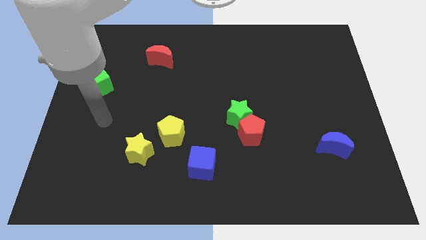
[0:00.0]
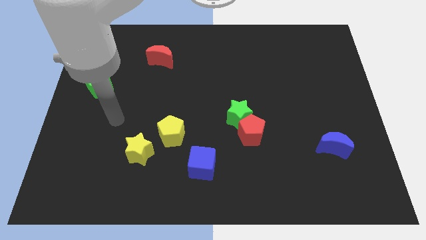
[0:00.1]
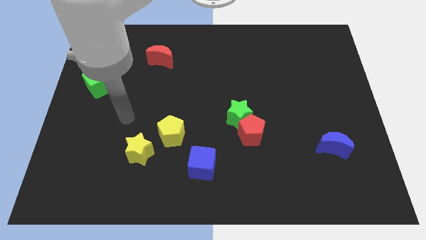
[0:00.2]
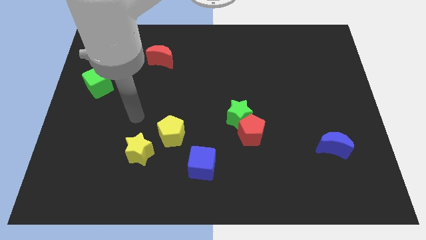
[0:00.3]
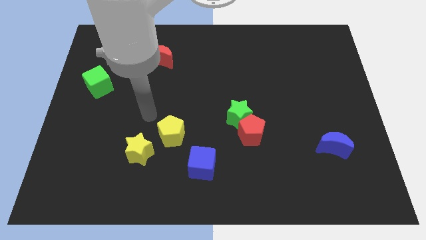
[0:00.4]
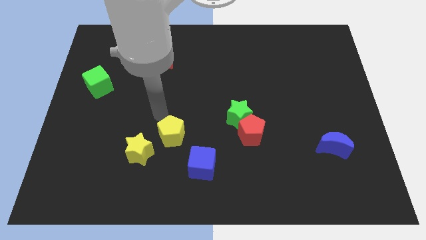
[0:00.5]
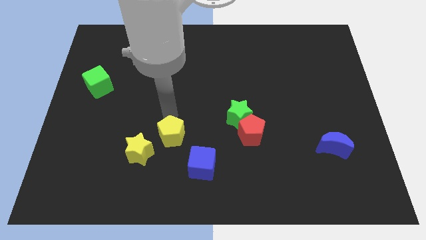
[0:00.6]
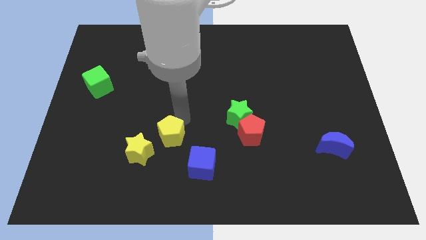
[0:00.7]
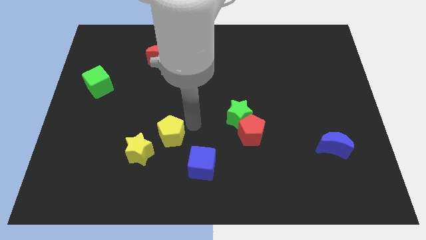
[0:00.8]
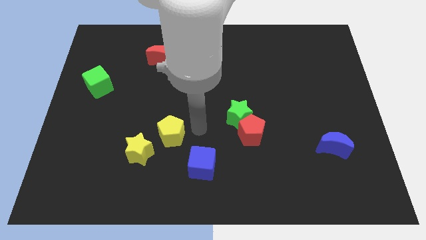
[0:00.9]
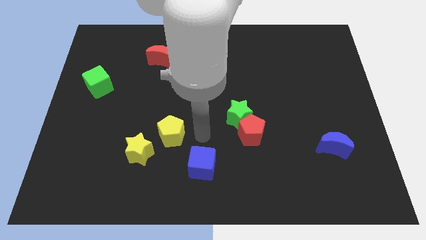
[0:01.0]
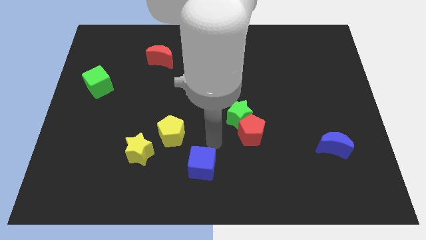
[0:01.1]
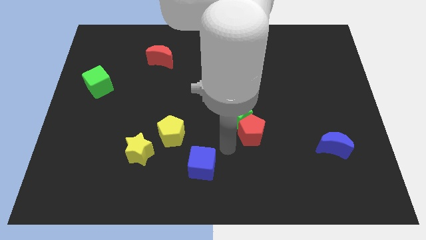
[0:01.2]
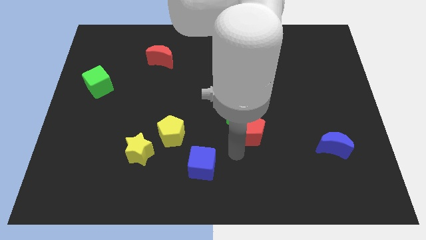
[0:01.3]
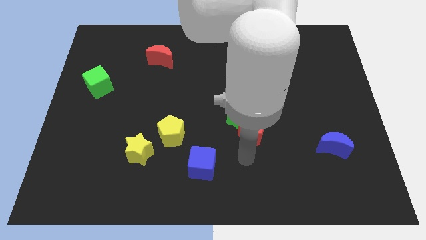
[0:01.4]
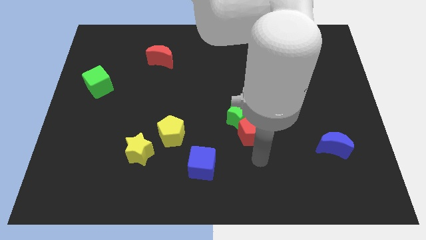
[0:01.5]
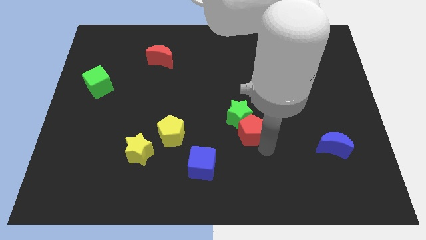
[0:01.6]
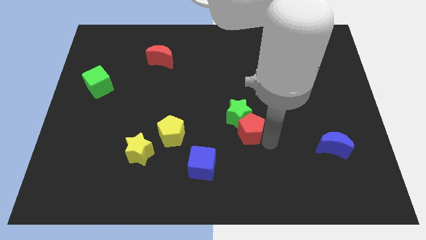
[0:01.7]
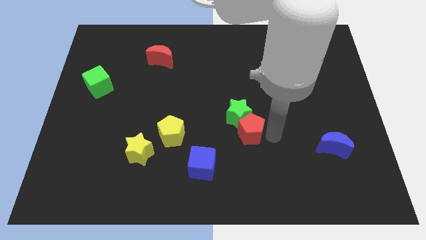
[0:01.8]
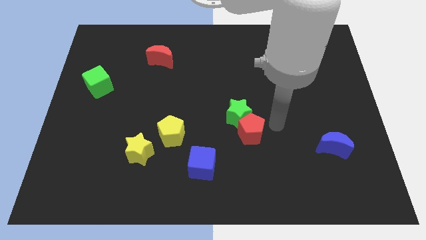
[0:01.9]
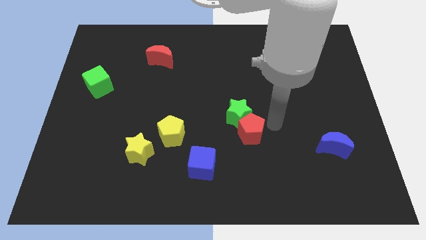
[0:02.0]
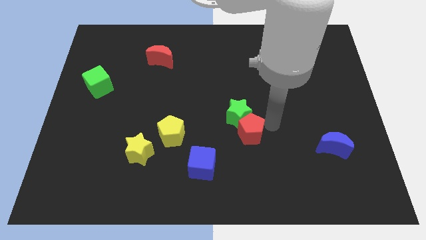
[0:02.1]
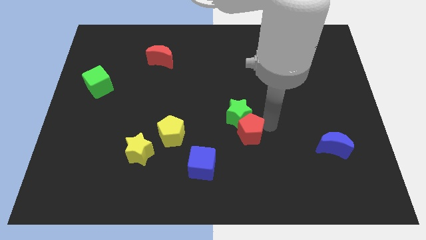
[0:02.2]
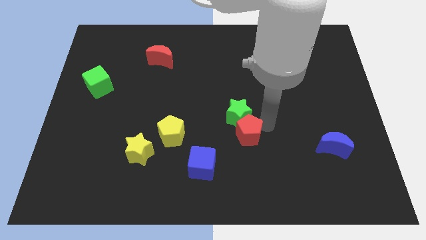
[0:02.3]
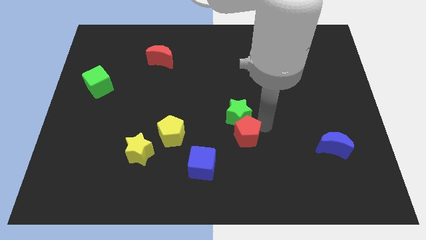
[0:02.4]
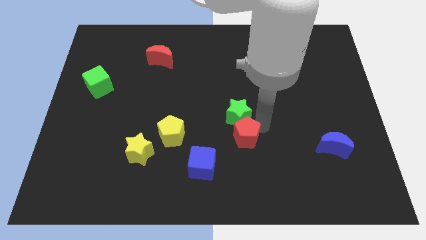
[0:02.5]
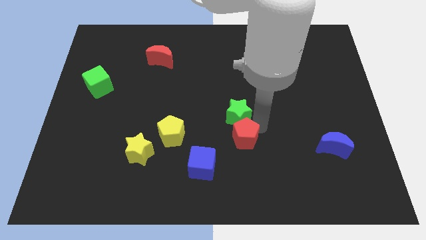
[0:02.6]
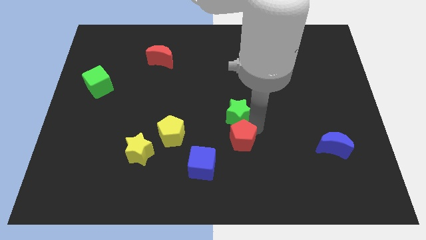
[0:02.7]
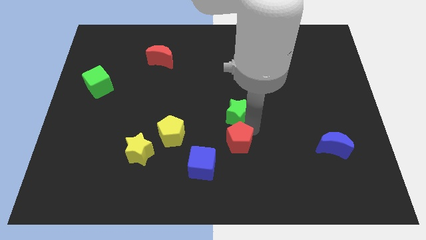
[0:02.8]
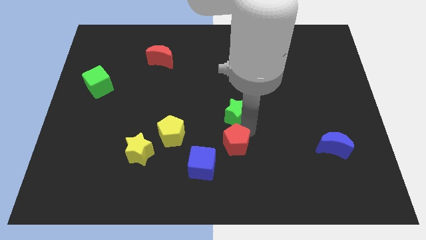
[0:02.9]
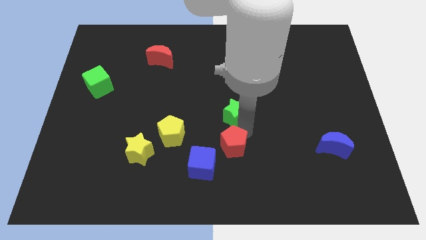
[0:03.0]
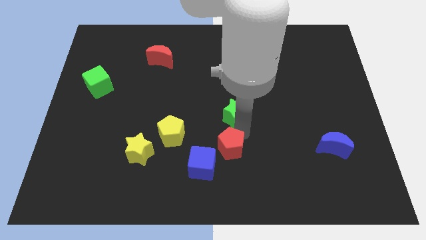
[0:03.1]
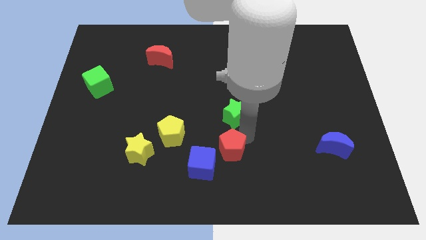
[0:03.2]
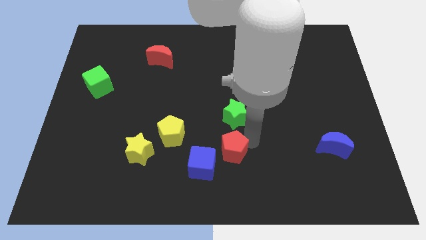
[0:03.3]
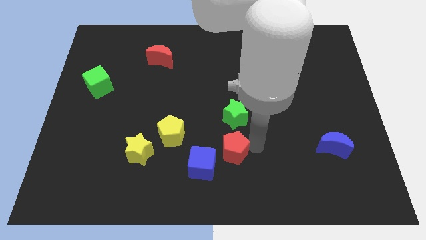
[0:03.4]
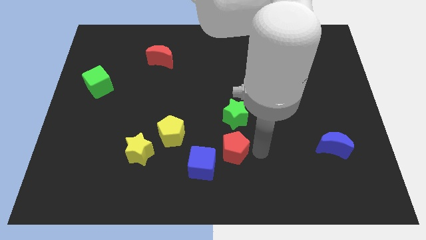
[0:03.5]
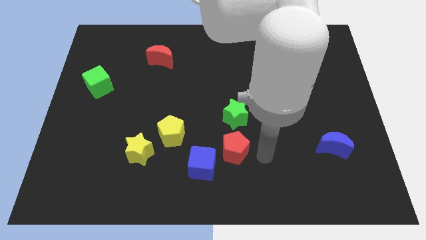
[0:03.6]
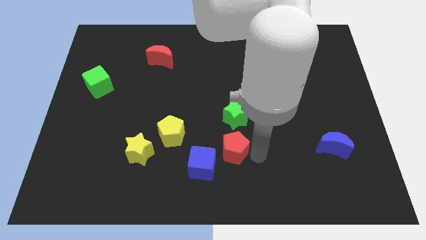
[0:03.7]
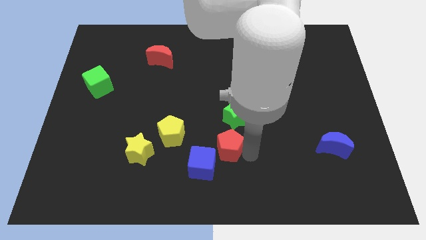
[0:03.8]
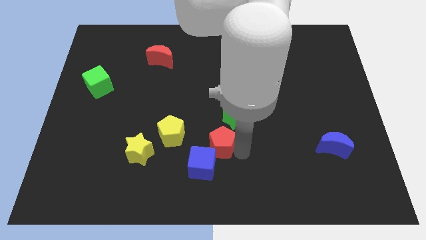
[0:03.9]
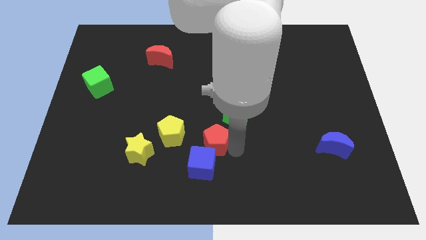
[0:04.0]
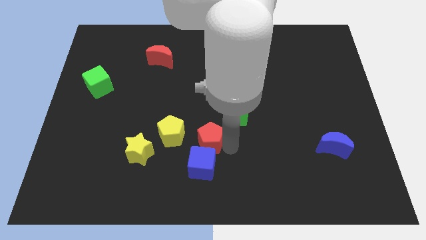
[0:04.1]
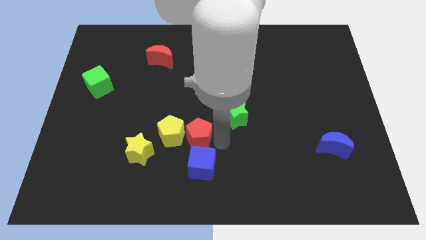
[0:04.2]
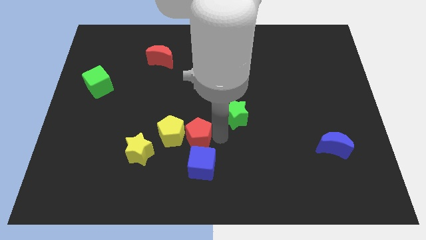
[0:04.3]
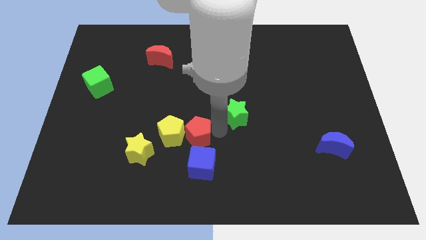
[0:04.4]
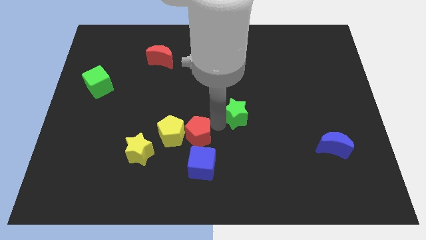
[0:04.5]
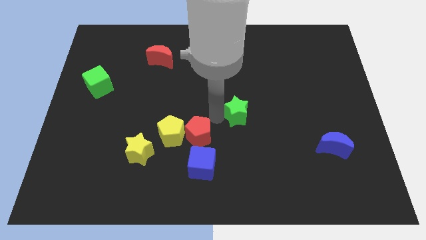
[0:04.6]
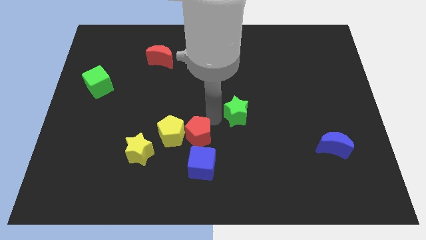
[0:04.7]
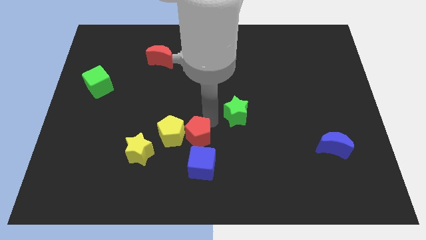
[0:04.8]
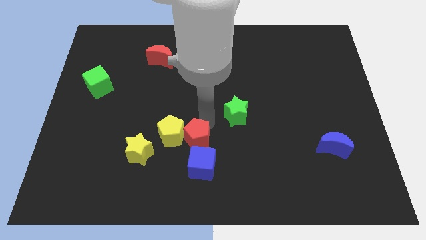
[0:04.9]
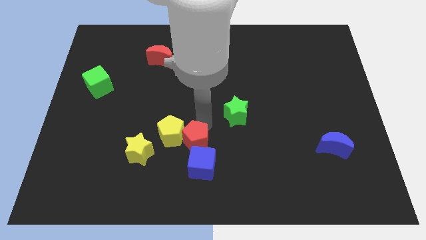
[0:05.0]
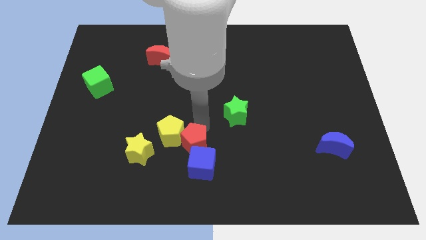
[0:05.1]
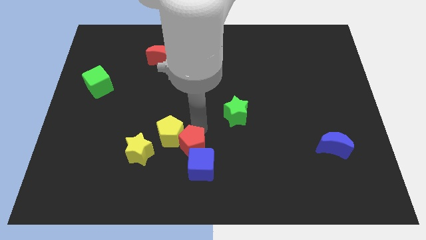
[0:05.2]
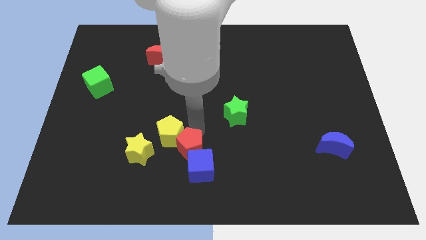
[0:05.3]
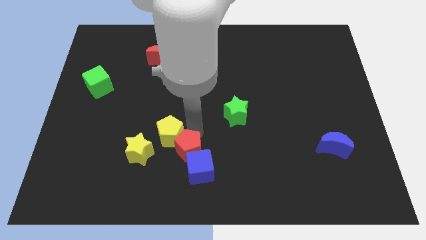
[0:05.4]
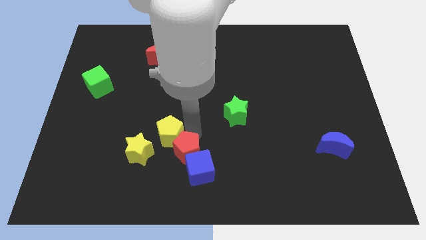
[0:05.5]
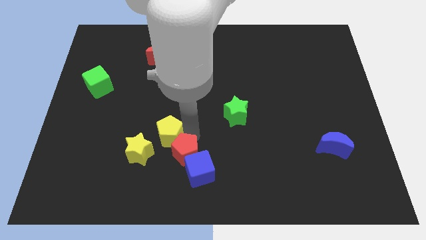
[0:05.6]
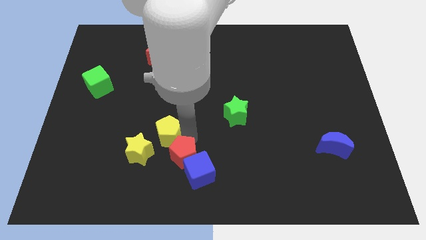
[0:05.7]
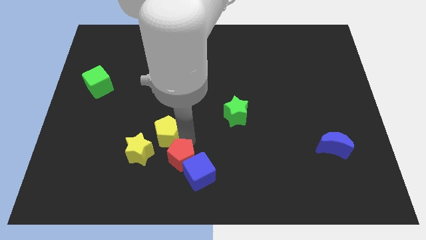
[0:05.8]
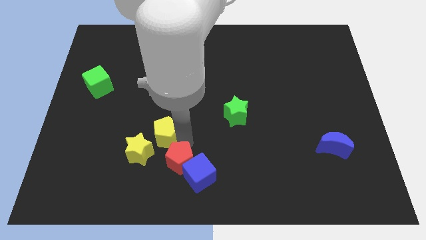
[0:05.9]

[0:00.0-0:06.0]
push the red pentagon to the bottom right side of the yellow star
